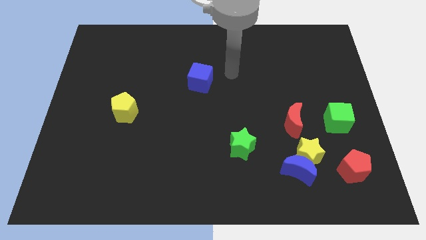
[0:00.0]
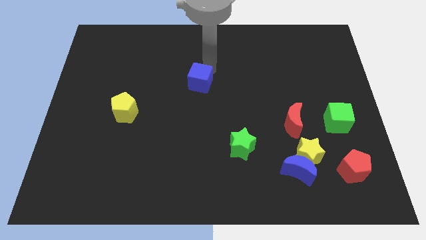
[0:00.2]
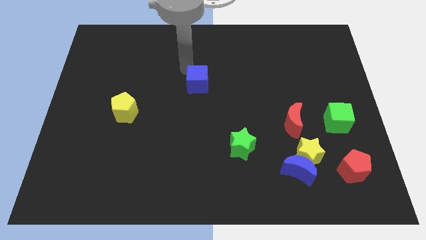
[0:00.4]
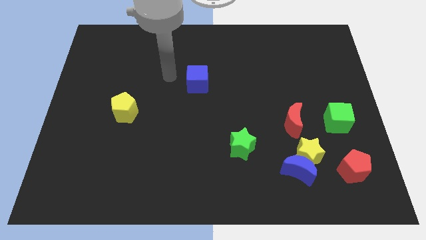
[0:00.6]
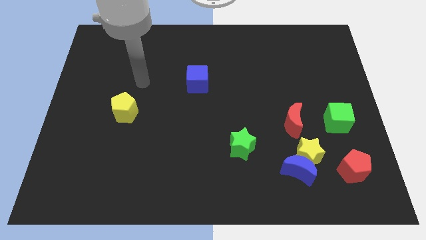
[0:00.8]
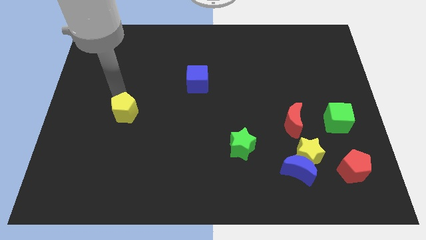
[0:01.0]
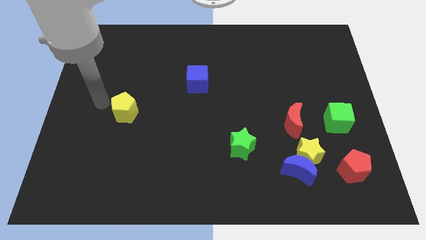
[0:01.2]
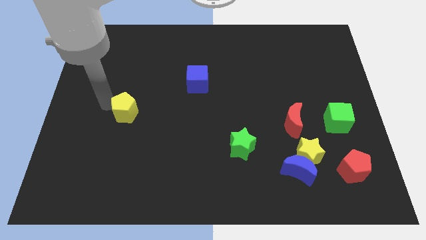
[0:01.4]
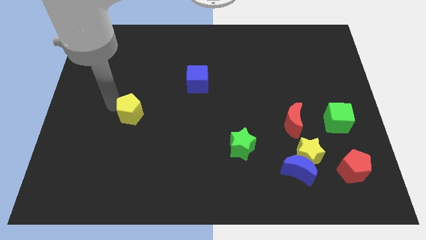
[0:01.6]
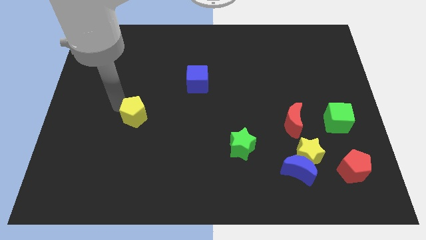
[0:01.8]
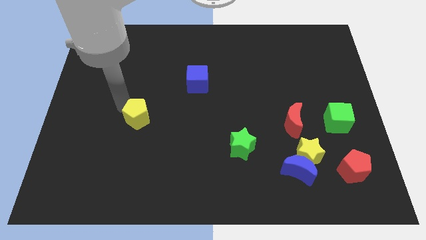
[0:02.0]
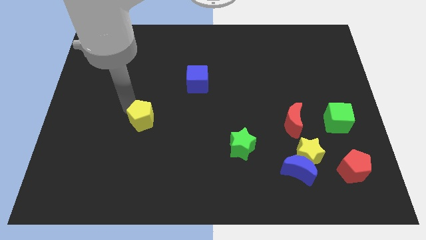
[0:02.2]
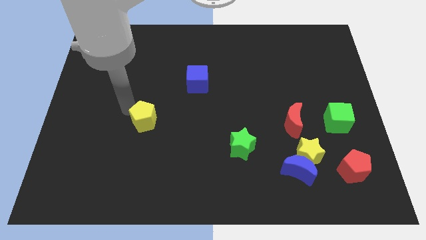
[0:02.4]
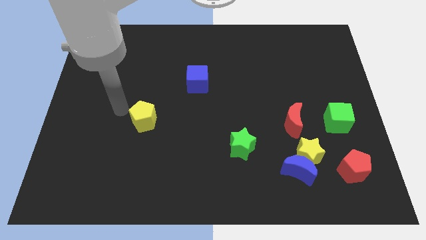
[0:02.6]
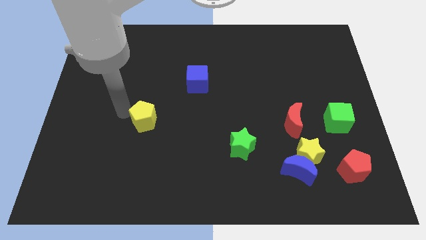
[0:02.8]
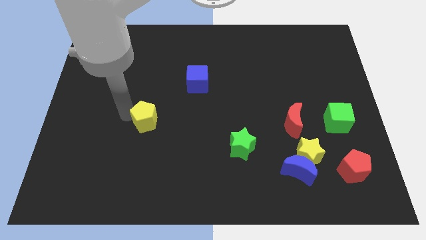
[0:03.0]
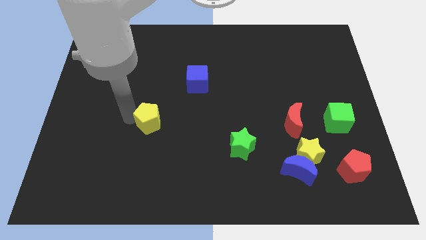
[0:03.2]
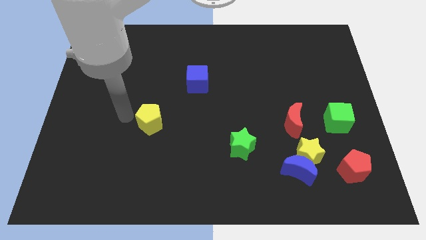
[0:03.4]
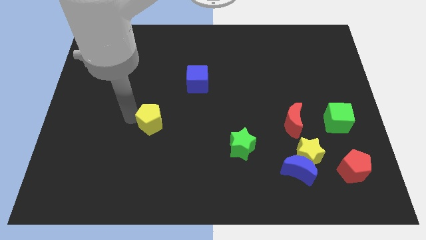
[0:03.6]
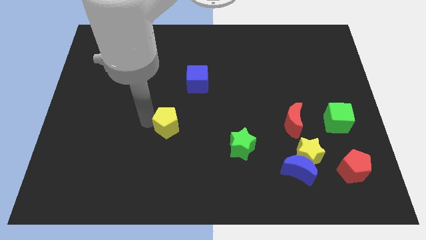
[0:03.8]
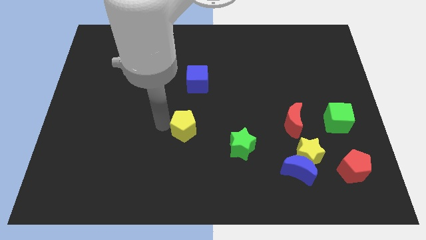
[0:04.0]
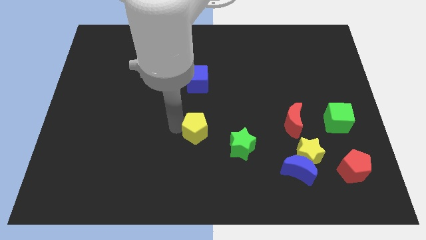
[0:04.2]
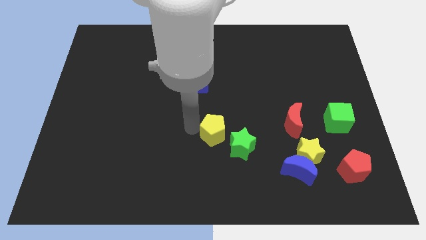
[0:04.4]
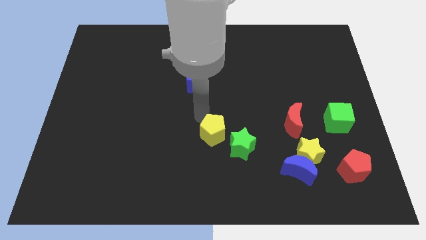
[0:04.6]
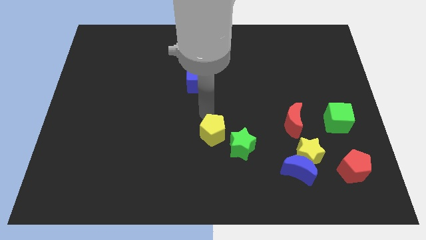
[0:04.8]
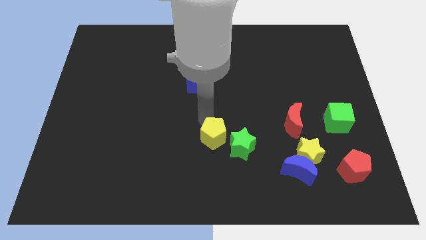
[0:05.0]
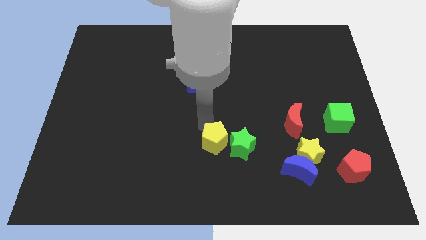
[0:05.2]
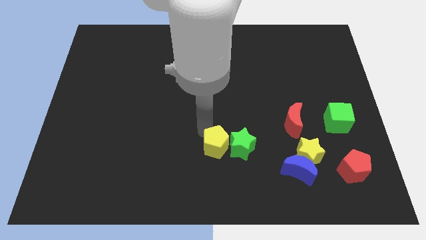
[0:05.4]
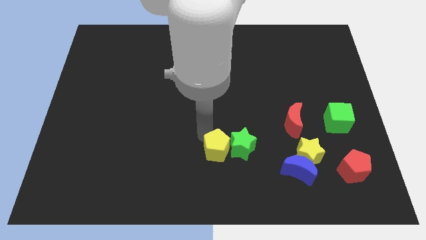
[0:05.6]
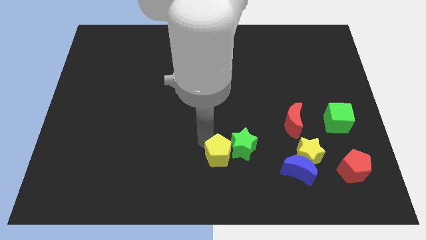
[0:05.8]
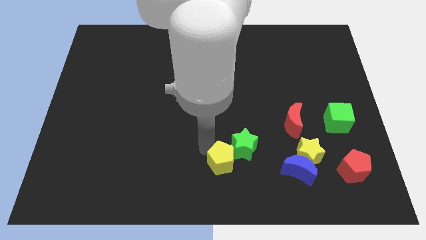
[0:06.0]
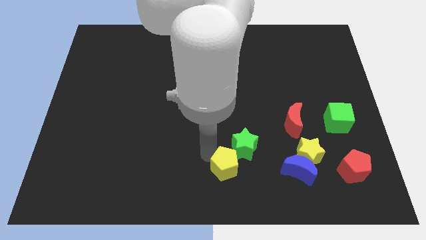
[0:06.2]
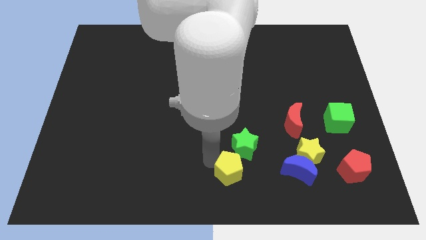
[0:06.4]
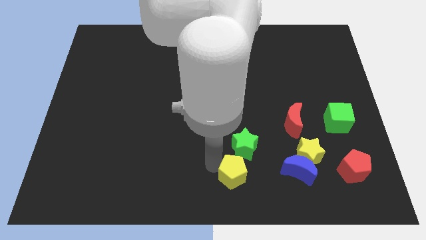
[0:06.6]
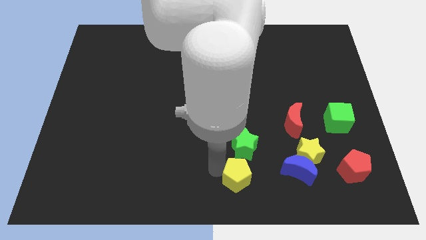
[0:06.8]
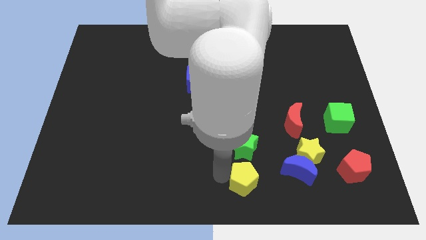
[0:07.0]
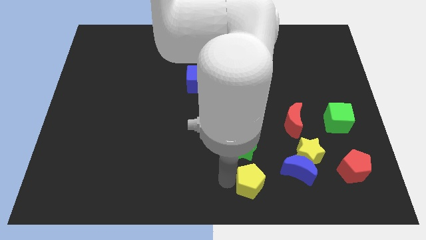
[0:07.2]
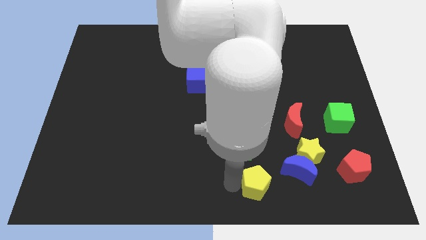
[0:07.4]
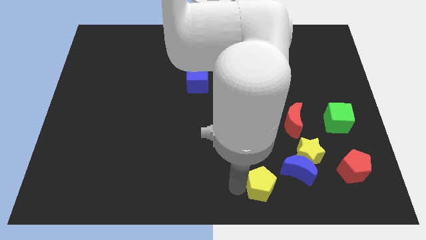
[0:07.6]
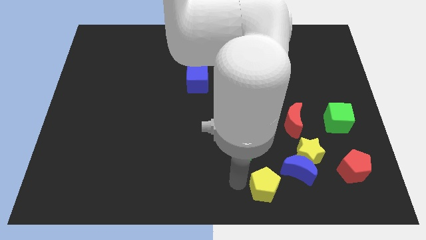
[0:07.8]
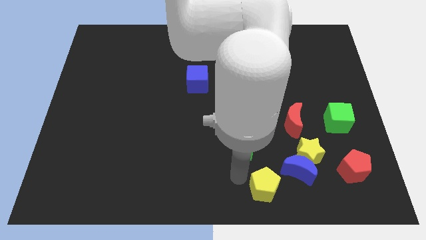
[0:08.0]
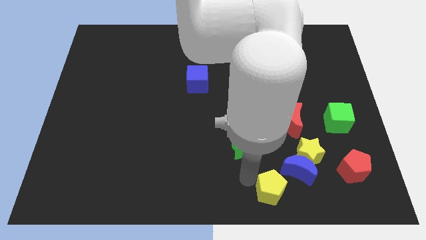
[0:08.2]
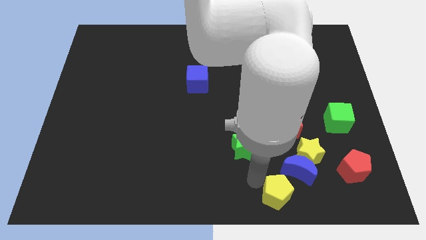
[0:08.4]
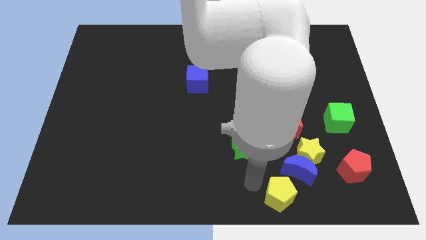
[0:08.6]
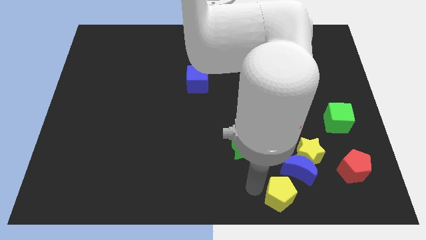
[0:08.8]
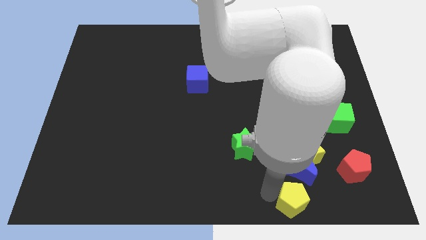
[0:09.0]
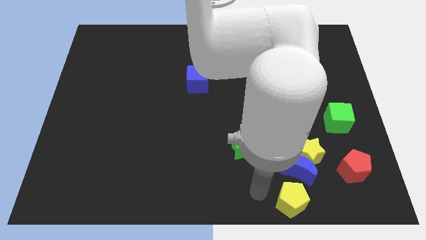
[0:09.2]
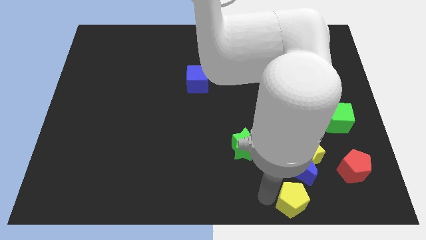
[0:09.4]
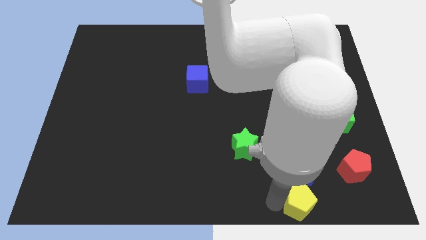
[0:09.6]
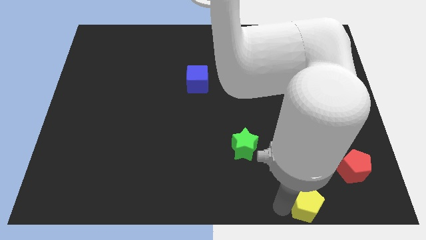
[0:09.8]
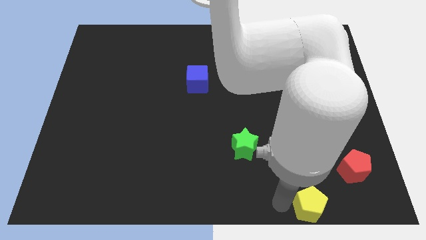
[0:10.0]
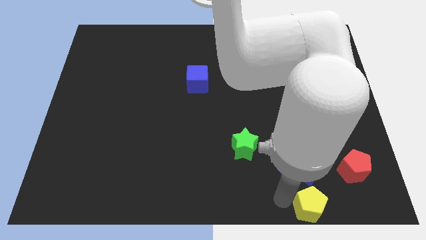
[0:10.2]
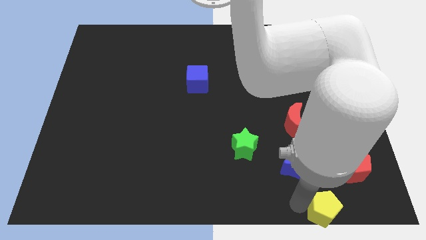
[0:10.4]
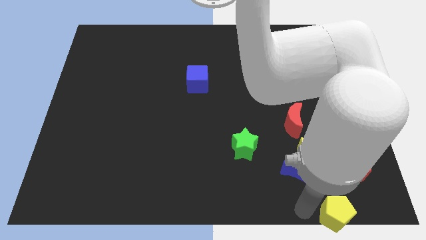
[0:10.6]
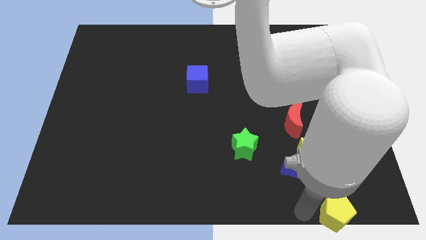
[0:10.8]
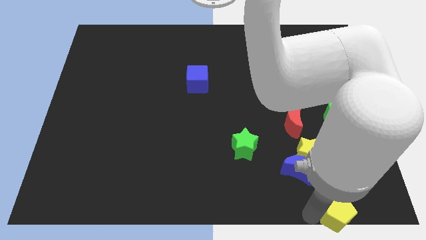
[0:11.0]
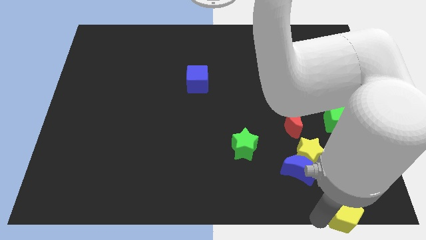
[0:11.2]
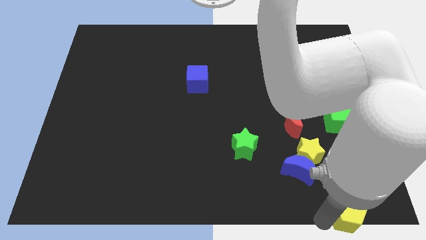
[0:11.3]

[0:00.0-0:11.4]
put the yellow pentagon to the bottom right
